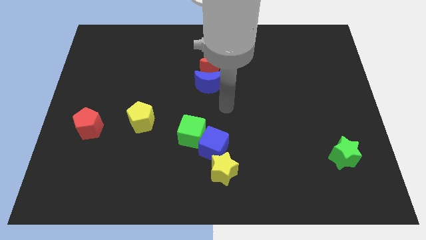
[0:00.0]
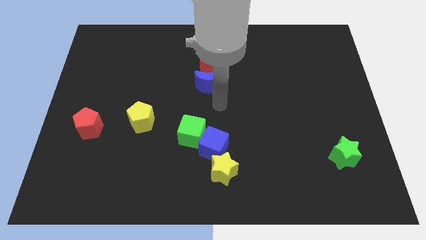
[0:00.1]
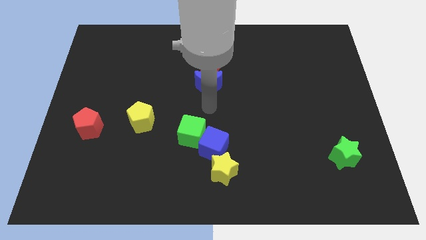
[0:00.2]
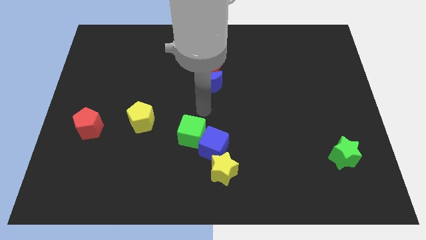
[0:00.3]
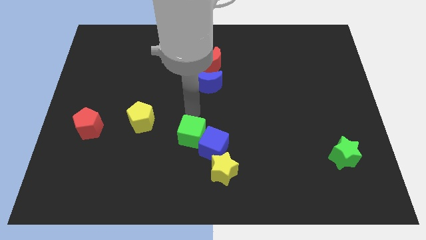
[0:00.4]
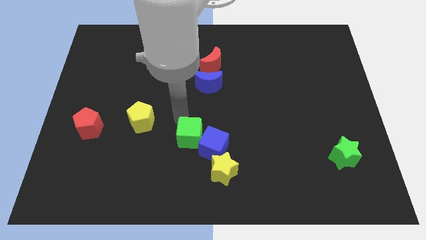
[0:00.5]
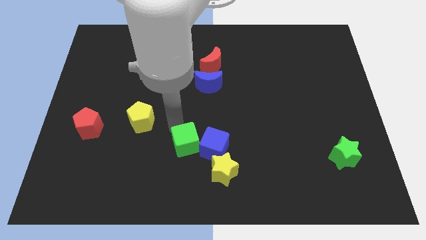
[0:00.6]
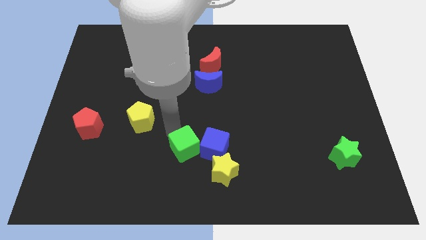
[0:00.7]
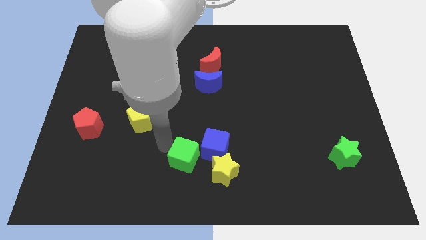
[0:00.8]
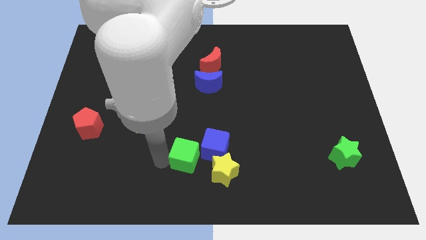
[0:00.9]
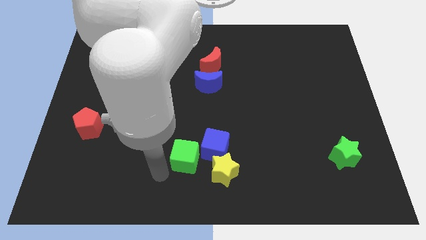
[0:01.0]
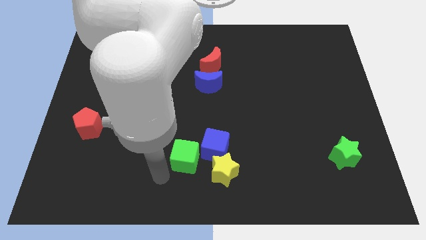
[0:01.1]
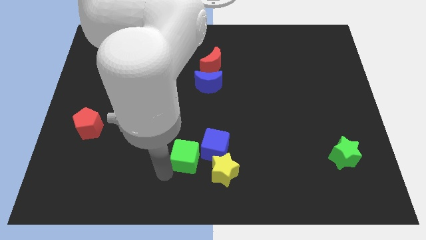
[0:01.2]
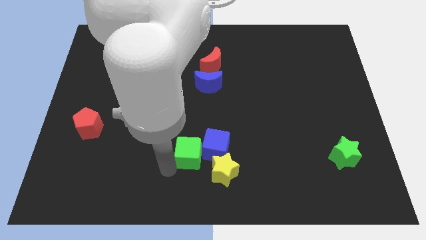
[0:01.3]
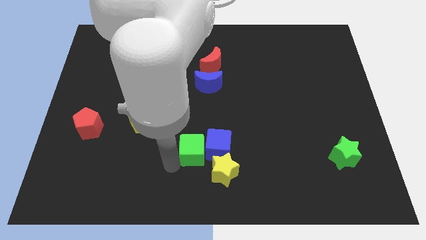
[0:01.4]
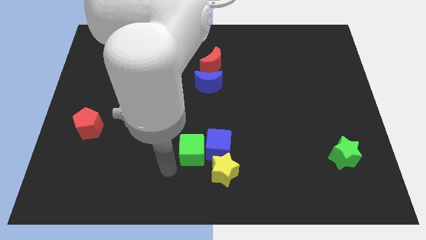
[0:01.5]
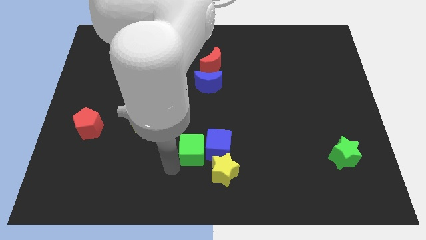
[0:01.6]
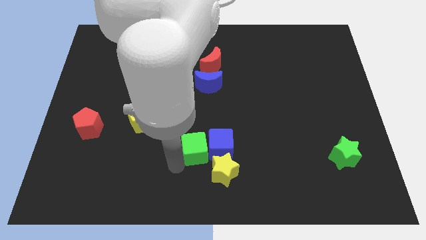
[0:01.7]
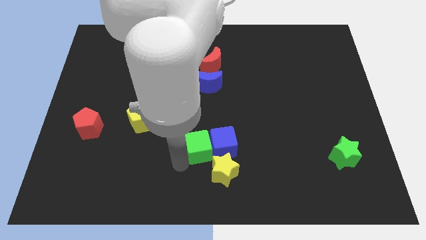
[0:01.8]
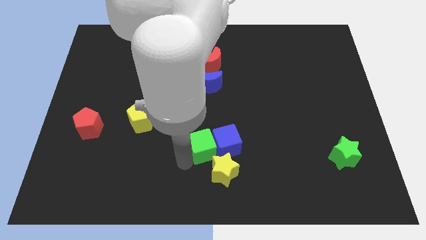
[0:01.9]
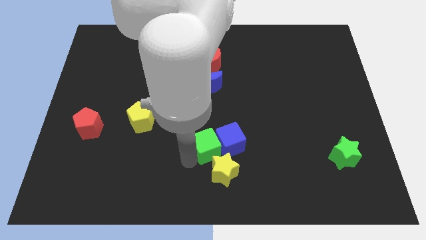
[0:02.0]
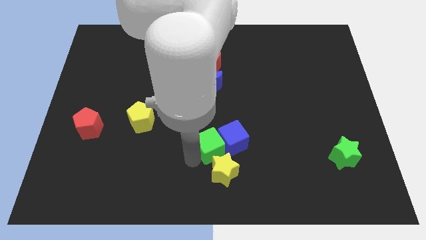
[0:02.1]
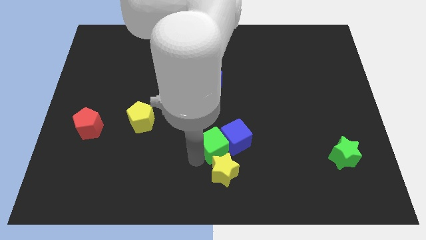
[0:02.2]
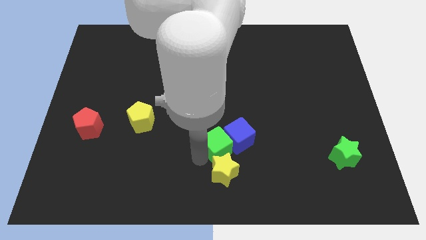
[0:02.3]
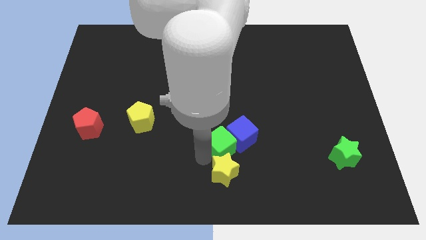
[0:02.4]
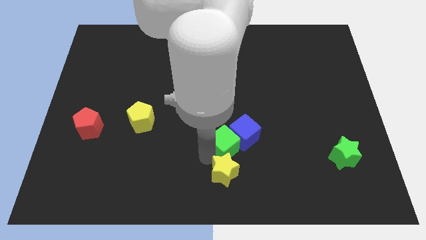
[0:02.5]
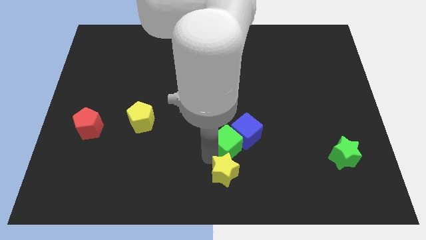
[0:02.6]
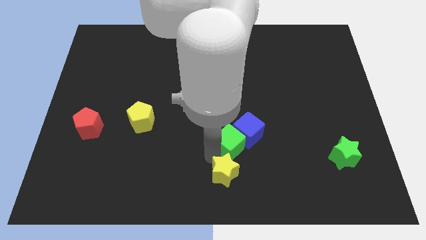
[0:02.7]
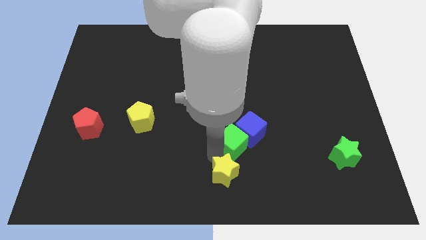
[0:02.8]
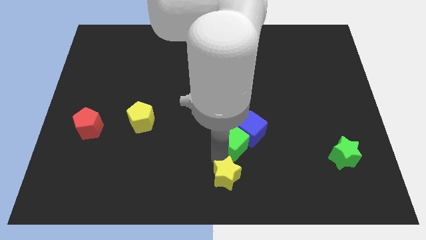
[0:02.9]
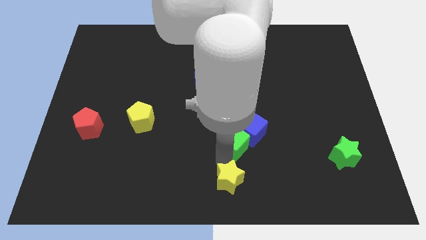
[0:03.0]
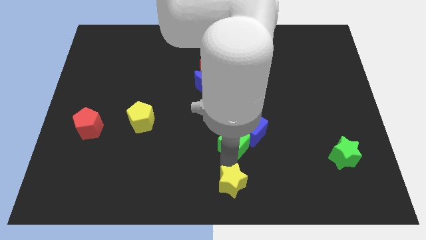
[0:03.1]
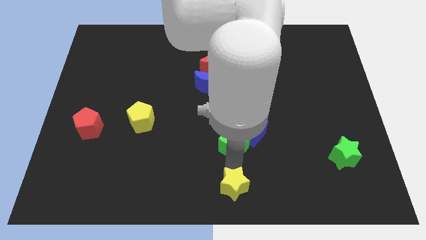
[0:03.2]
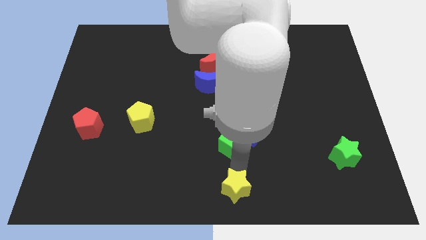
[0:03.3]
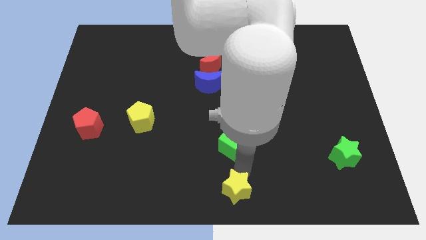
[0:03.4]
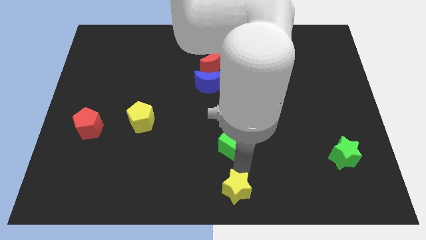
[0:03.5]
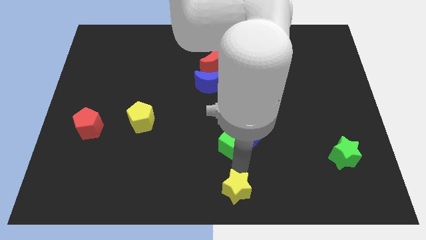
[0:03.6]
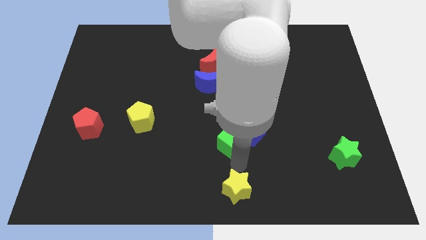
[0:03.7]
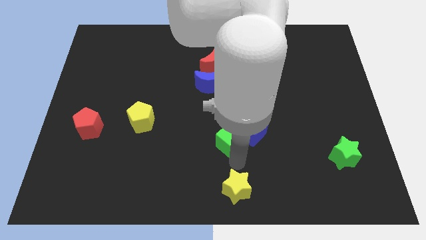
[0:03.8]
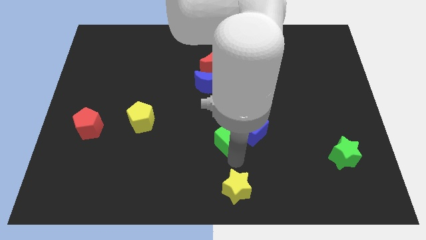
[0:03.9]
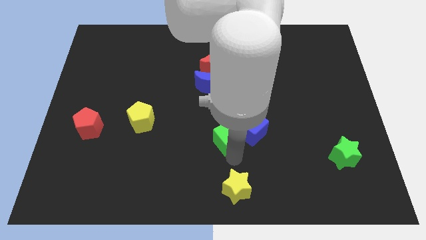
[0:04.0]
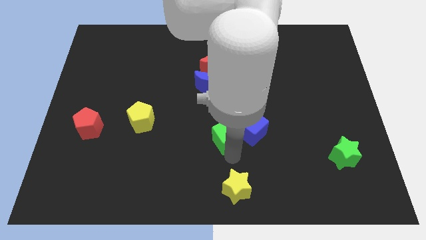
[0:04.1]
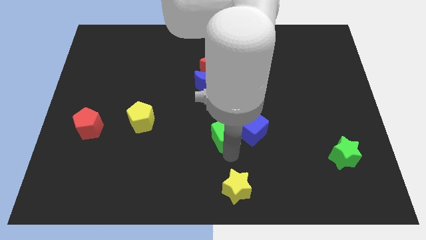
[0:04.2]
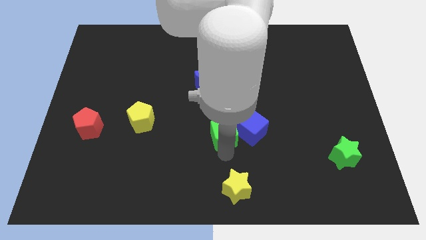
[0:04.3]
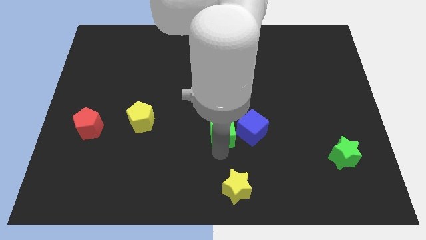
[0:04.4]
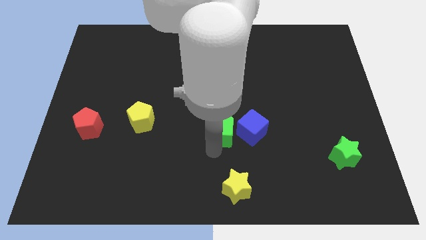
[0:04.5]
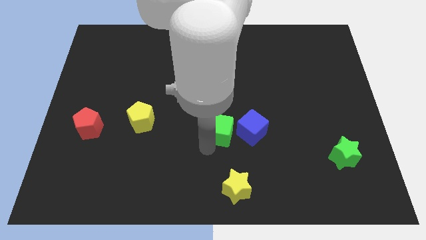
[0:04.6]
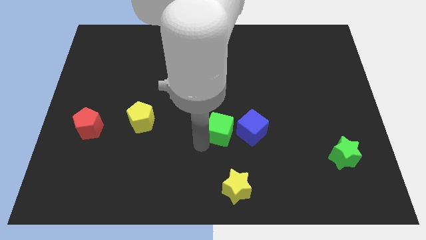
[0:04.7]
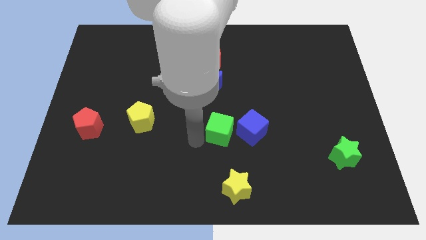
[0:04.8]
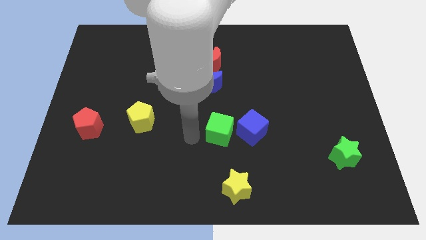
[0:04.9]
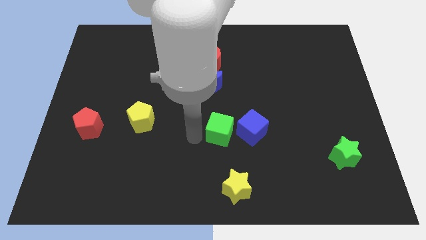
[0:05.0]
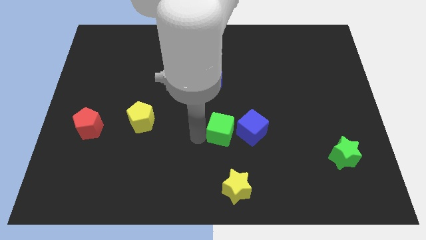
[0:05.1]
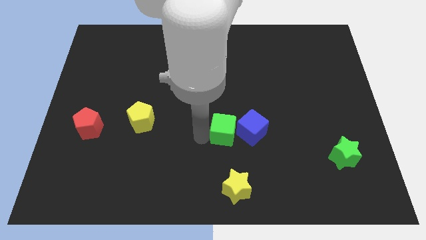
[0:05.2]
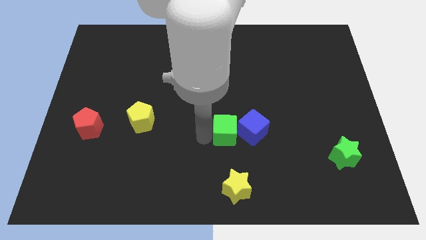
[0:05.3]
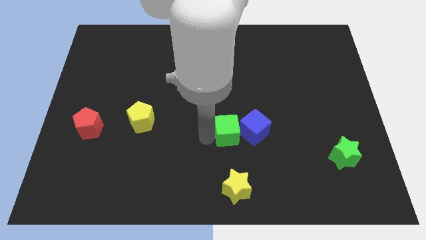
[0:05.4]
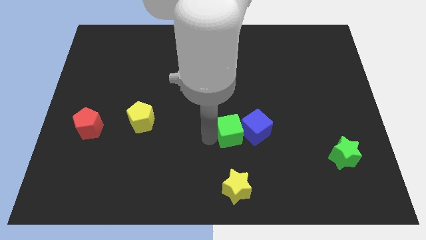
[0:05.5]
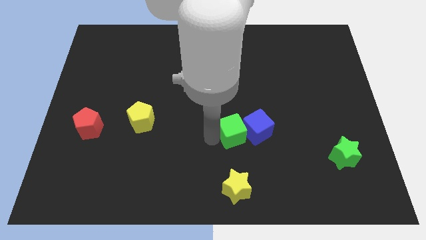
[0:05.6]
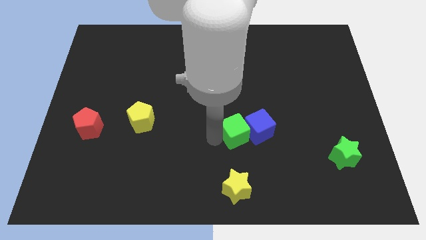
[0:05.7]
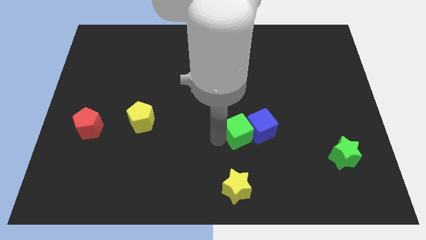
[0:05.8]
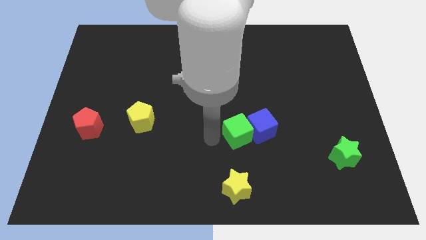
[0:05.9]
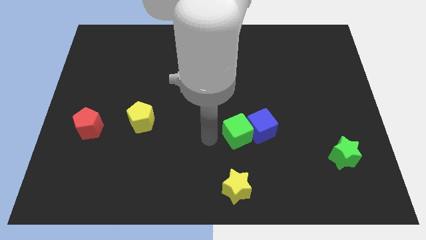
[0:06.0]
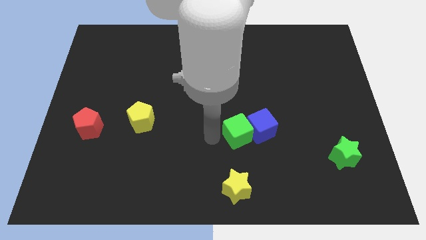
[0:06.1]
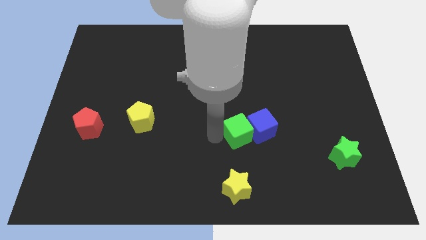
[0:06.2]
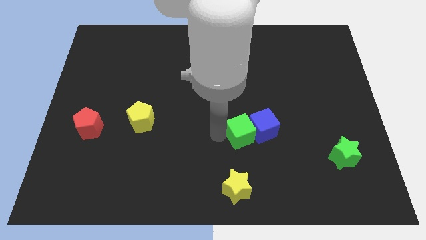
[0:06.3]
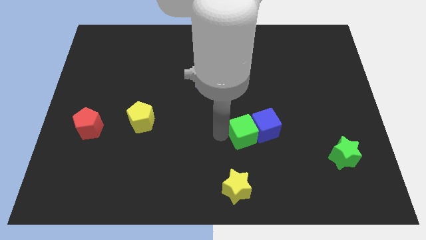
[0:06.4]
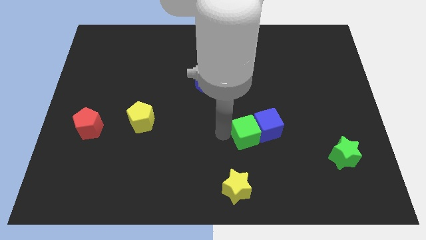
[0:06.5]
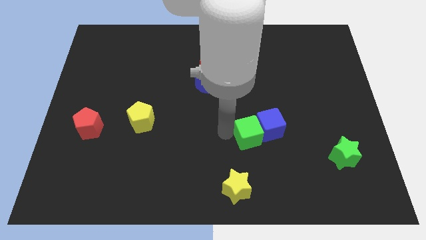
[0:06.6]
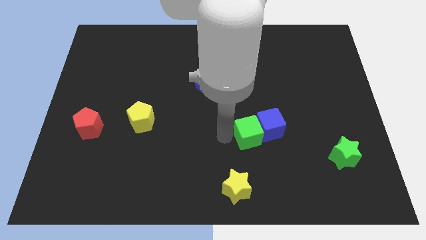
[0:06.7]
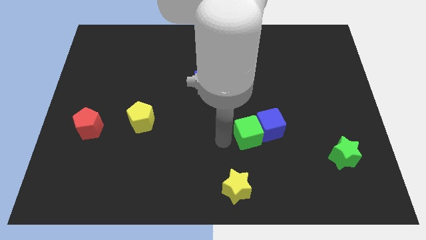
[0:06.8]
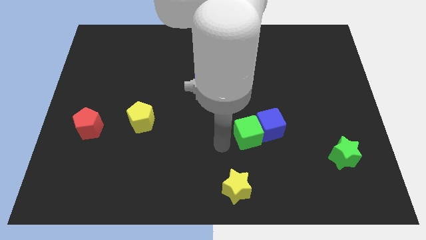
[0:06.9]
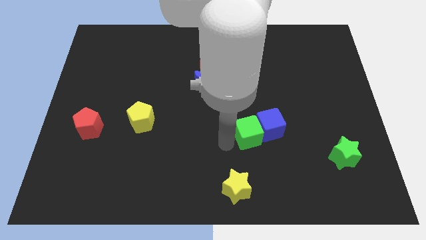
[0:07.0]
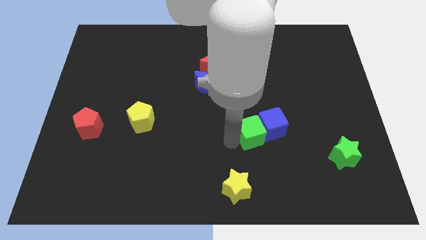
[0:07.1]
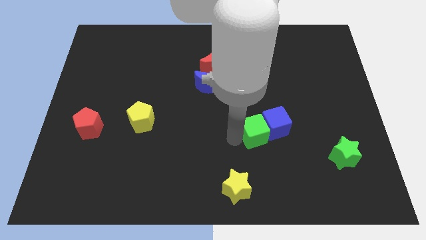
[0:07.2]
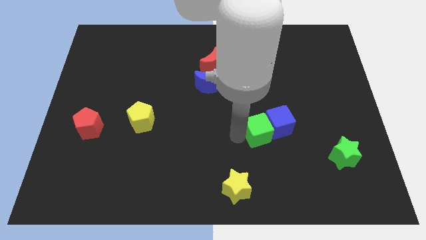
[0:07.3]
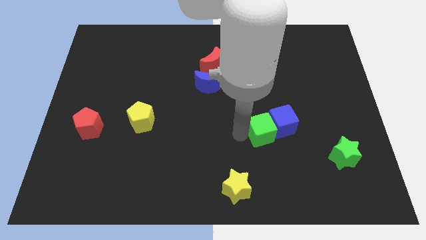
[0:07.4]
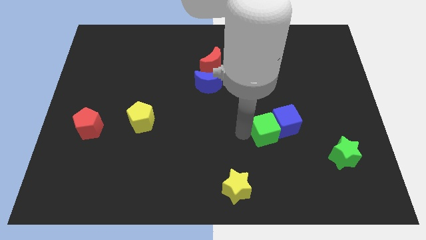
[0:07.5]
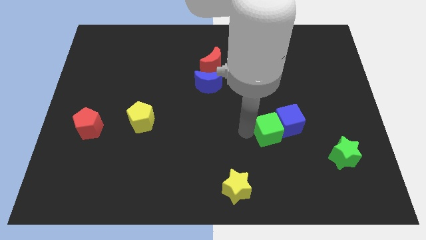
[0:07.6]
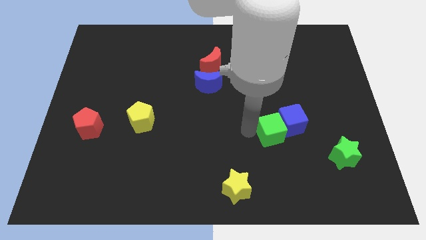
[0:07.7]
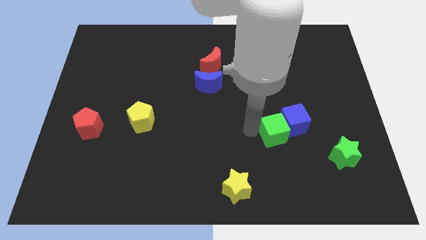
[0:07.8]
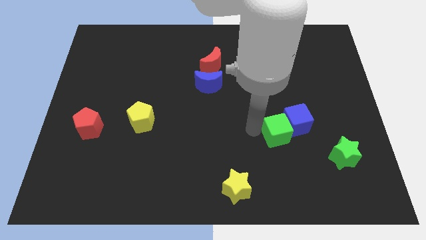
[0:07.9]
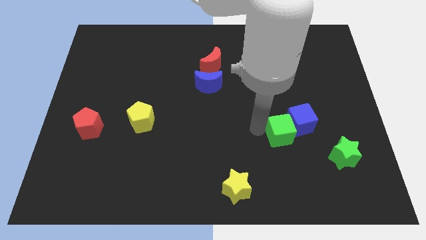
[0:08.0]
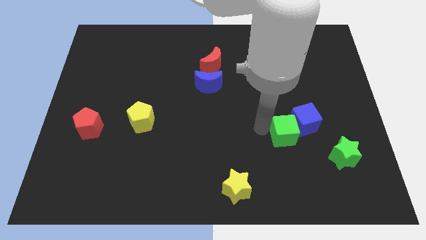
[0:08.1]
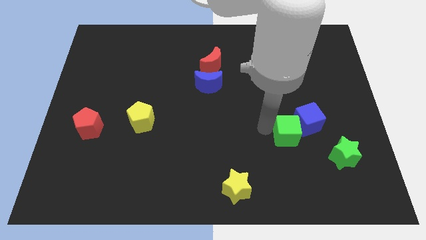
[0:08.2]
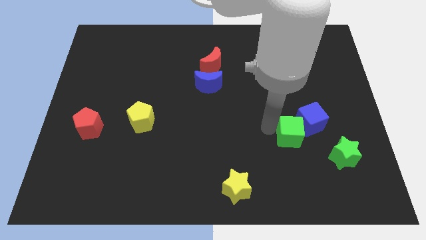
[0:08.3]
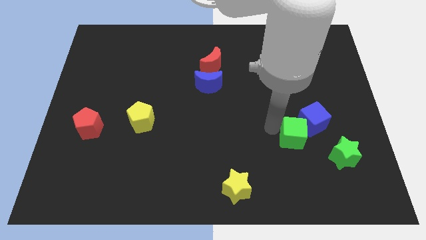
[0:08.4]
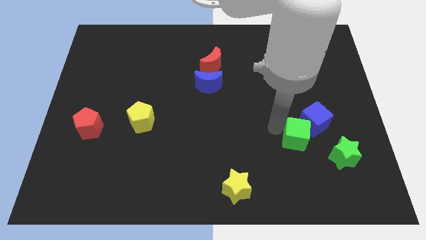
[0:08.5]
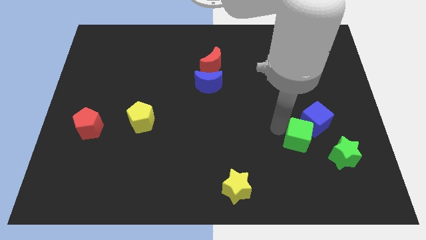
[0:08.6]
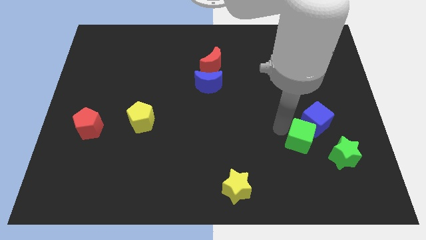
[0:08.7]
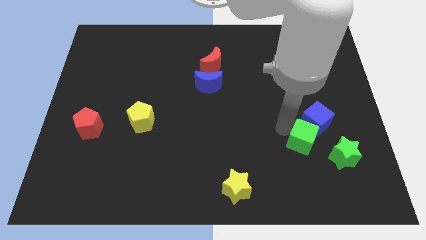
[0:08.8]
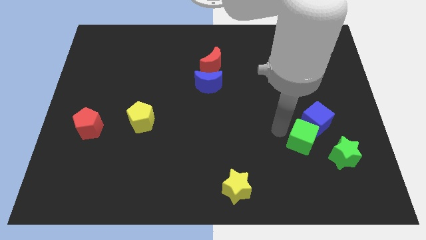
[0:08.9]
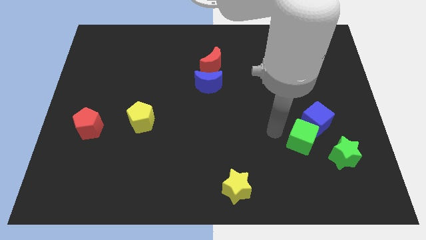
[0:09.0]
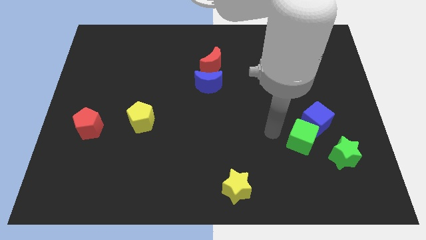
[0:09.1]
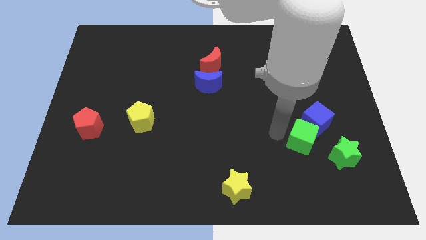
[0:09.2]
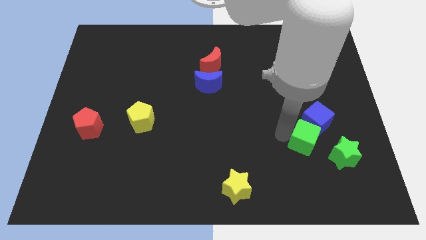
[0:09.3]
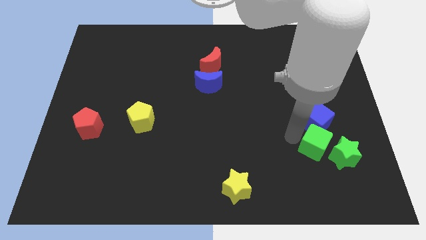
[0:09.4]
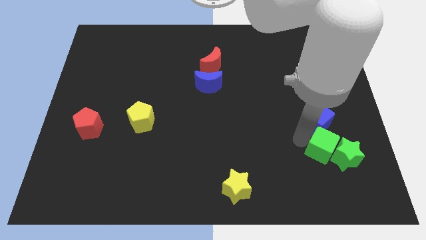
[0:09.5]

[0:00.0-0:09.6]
put the green cube to the green star
